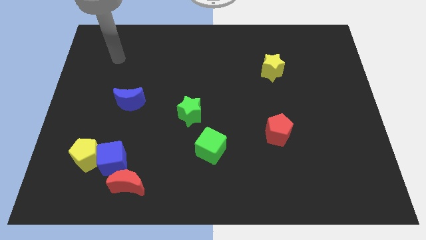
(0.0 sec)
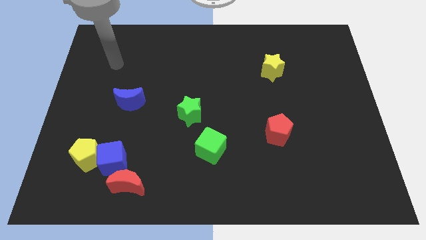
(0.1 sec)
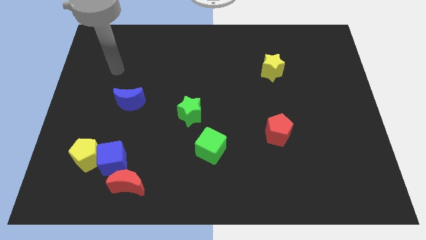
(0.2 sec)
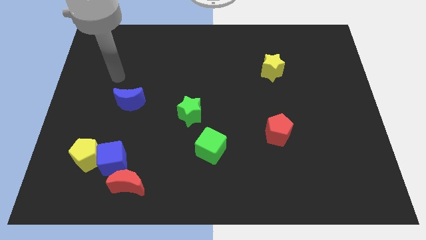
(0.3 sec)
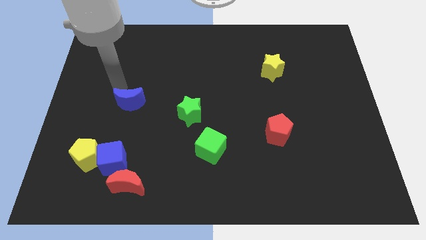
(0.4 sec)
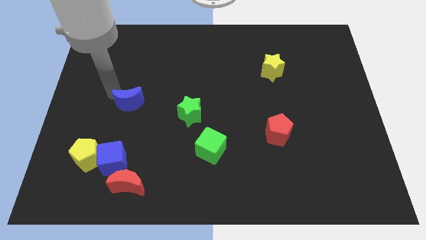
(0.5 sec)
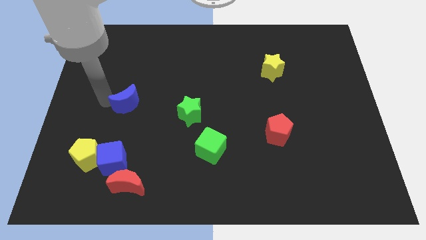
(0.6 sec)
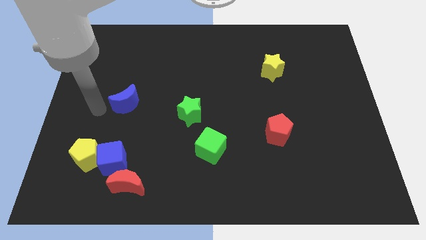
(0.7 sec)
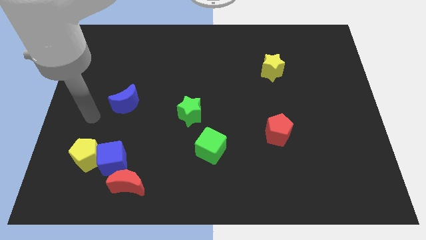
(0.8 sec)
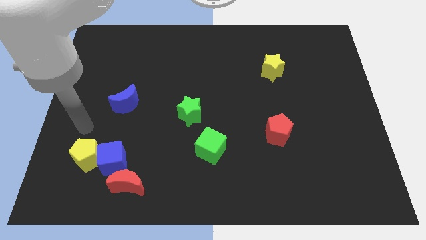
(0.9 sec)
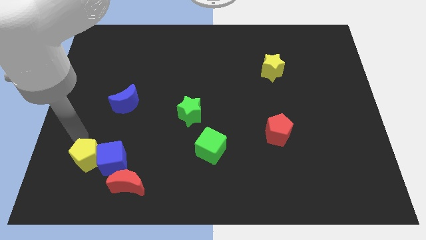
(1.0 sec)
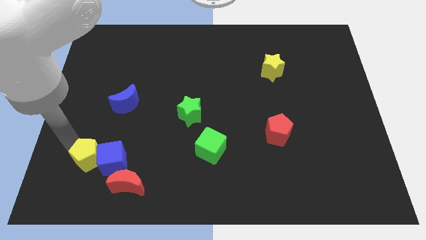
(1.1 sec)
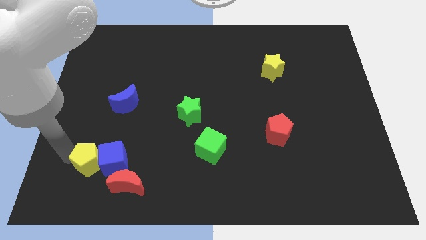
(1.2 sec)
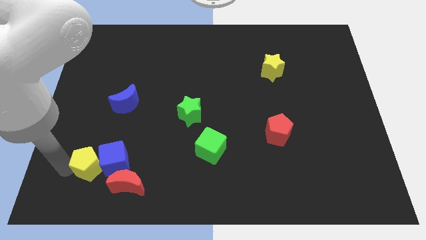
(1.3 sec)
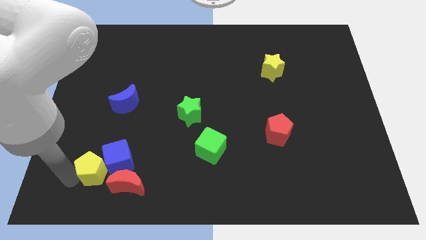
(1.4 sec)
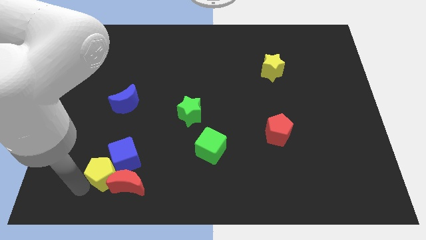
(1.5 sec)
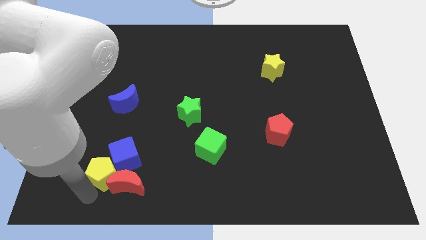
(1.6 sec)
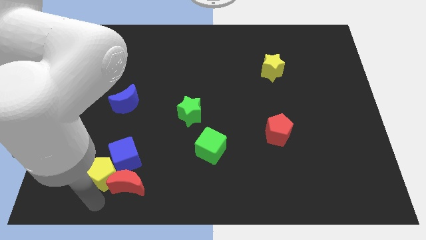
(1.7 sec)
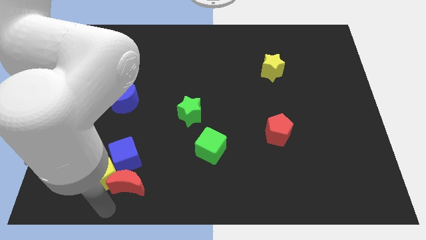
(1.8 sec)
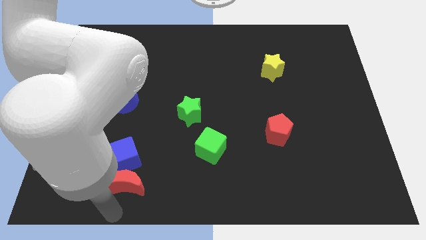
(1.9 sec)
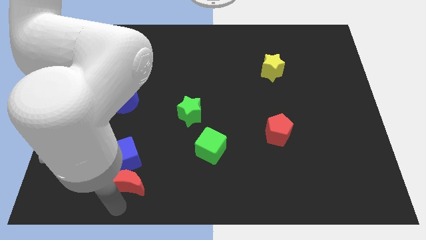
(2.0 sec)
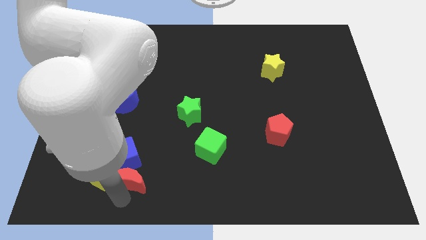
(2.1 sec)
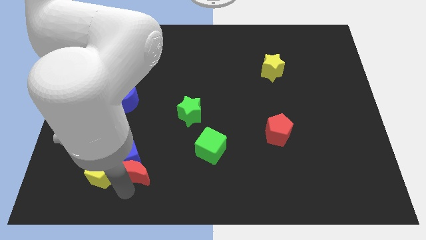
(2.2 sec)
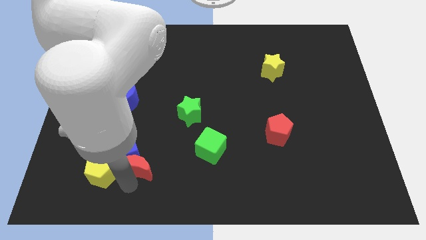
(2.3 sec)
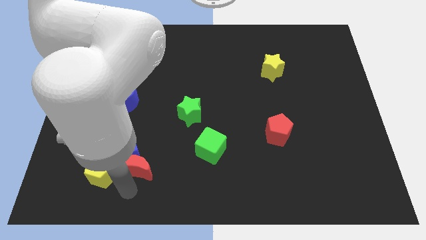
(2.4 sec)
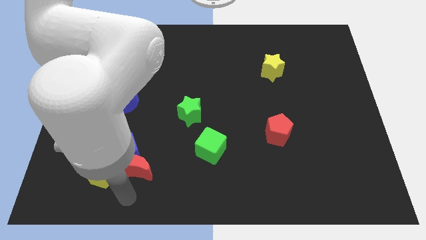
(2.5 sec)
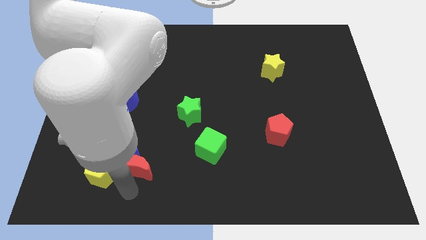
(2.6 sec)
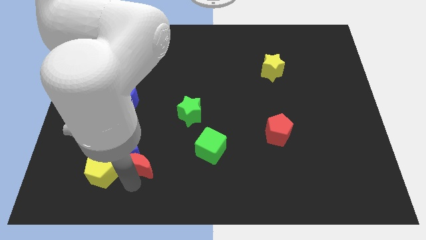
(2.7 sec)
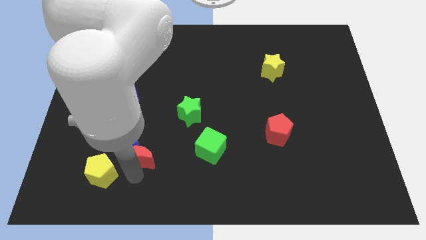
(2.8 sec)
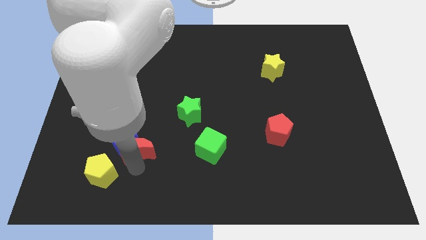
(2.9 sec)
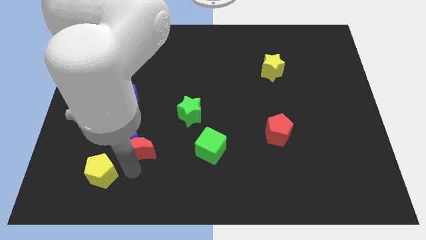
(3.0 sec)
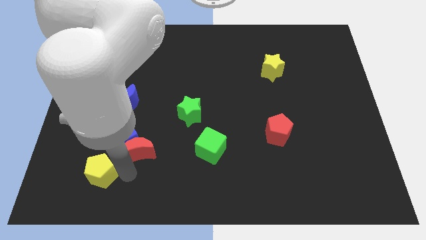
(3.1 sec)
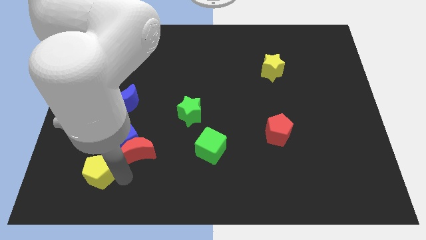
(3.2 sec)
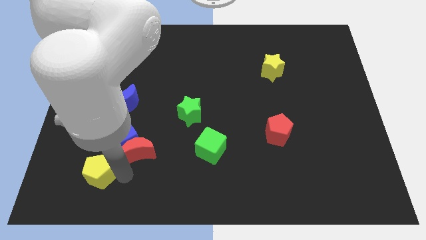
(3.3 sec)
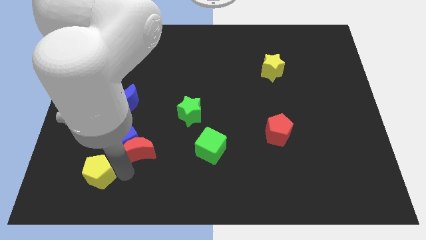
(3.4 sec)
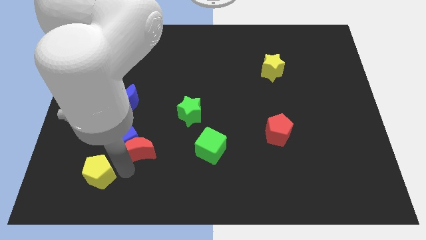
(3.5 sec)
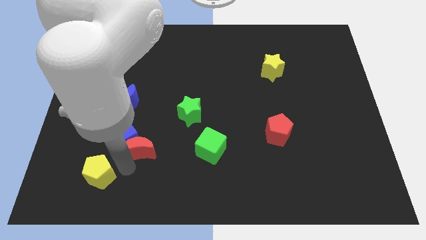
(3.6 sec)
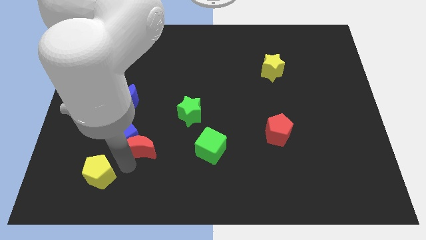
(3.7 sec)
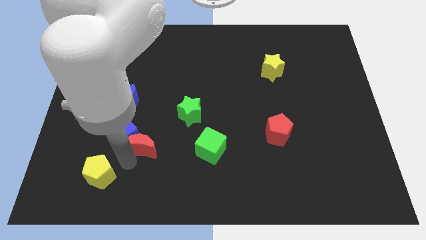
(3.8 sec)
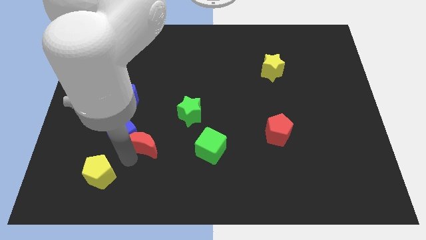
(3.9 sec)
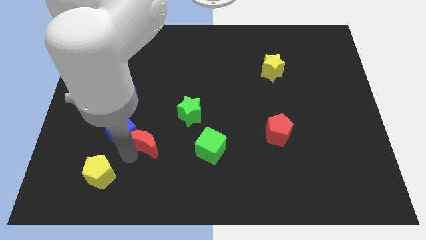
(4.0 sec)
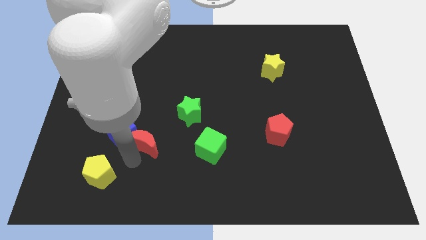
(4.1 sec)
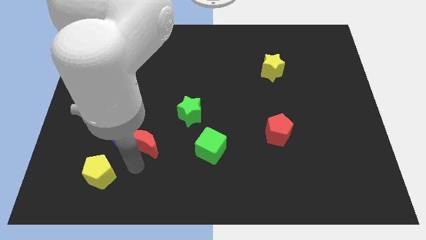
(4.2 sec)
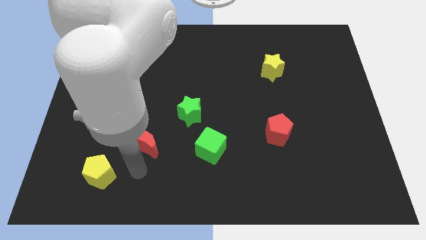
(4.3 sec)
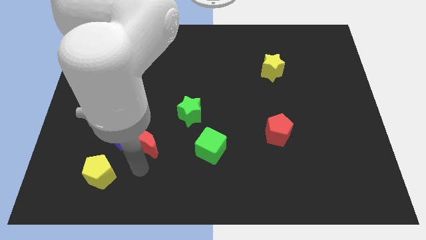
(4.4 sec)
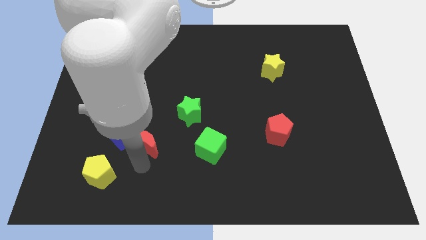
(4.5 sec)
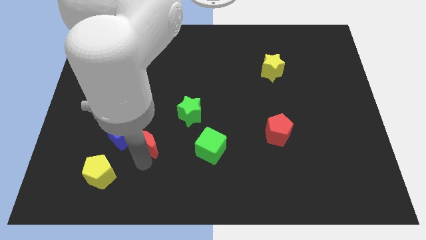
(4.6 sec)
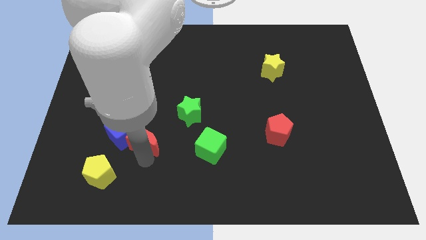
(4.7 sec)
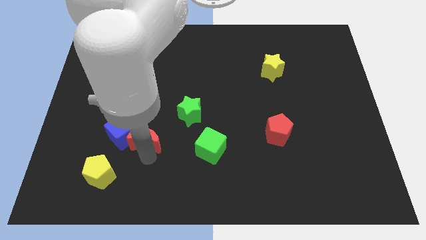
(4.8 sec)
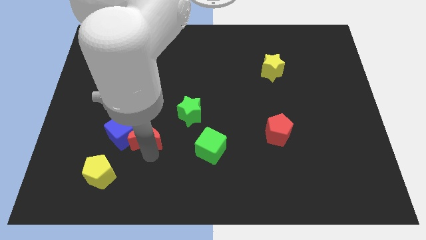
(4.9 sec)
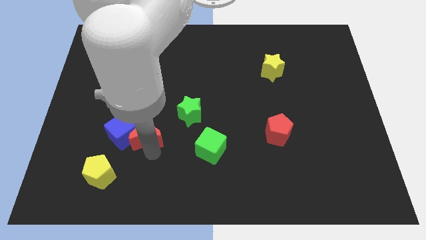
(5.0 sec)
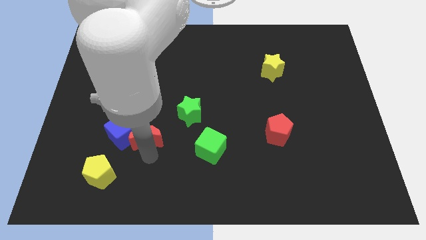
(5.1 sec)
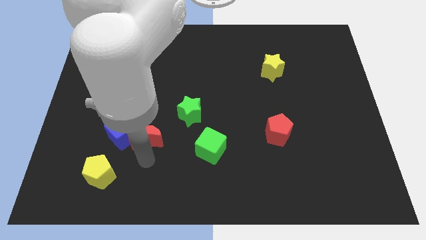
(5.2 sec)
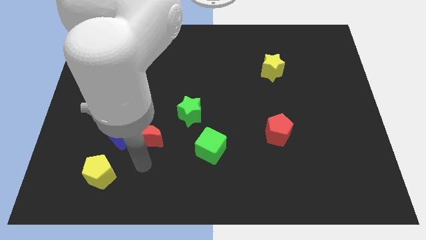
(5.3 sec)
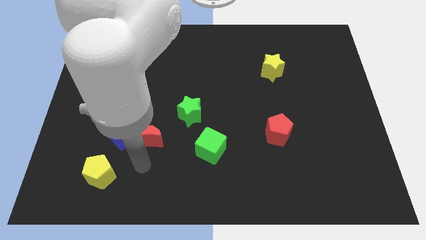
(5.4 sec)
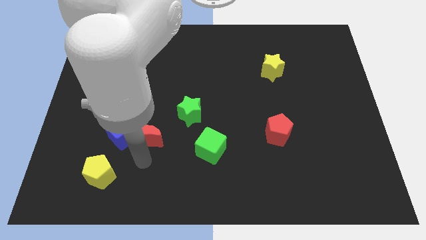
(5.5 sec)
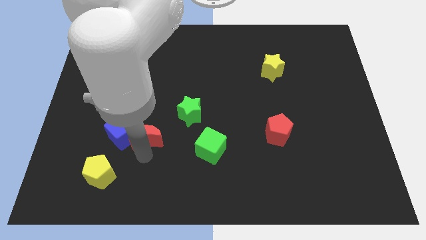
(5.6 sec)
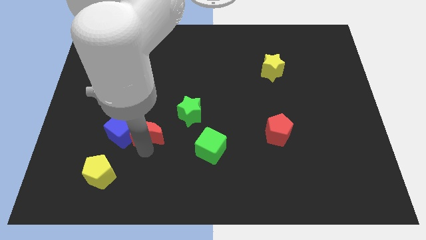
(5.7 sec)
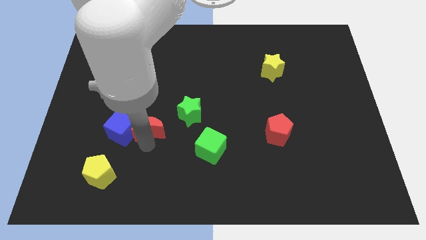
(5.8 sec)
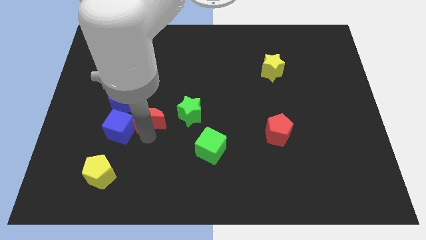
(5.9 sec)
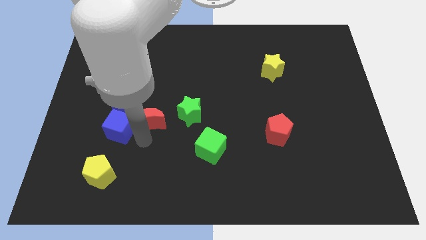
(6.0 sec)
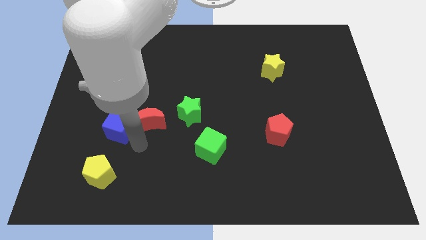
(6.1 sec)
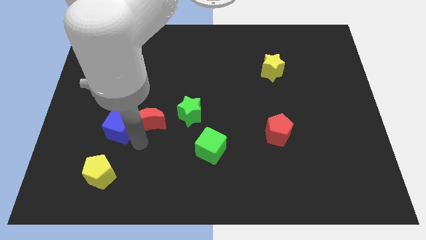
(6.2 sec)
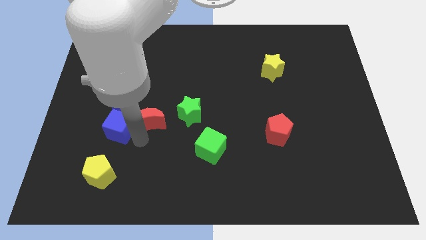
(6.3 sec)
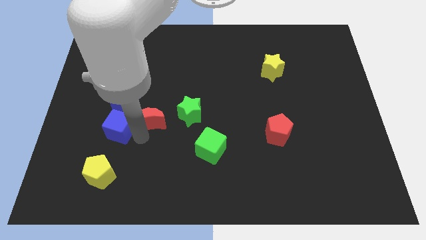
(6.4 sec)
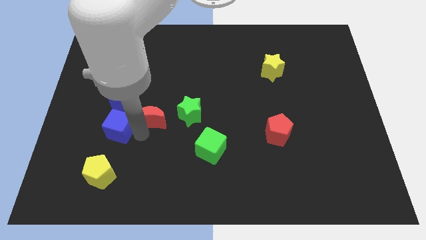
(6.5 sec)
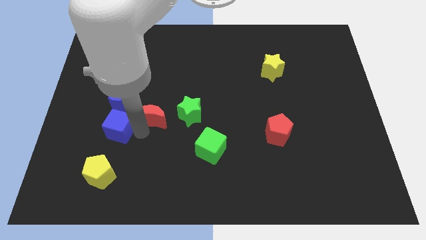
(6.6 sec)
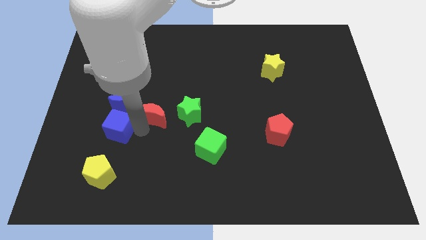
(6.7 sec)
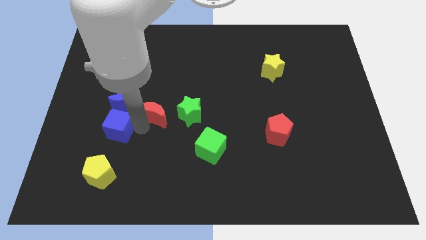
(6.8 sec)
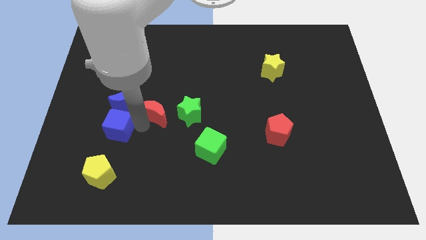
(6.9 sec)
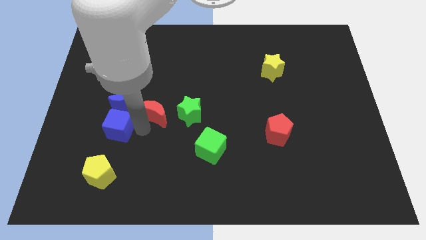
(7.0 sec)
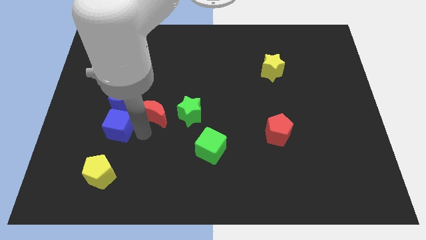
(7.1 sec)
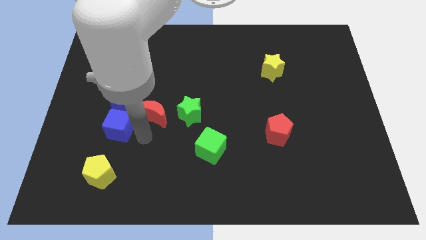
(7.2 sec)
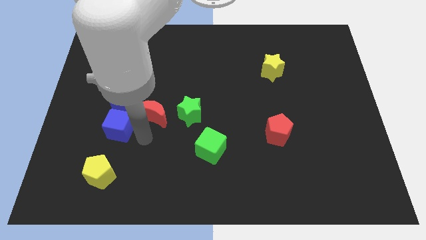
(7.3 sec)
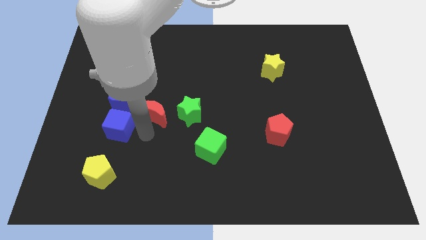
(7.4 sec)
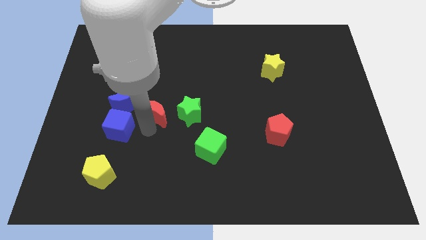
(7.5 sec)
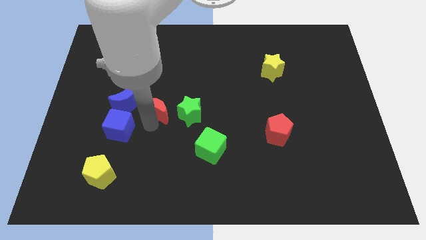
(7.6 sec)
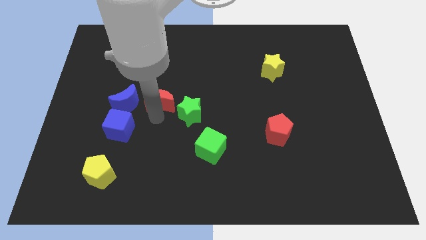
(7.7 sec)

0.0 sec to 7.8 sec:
move the red moon up
